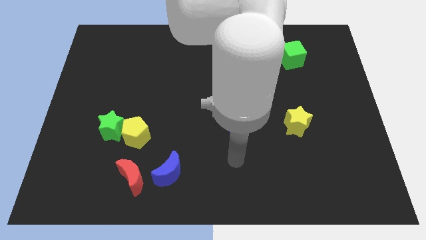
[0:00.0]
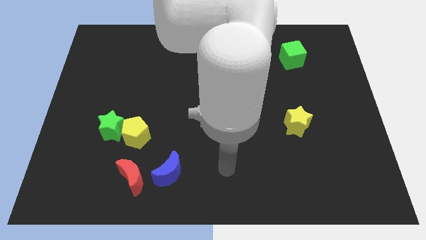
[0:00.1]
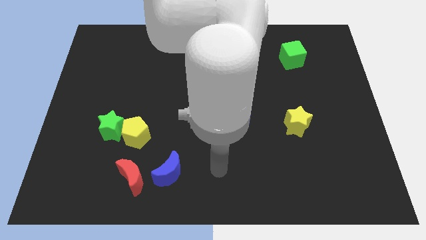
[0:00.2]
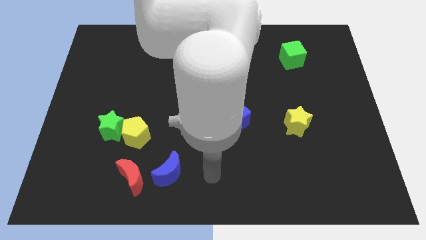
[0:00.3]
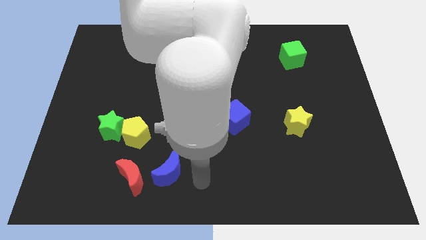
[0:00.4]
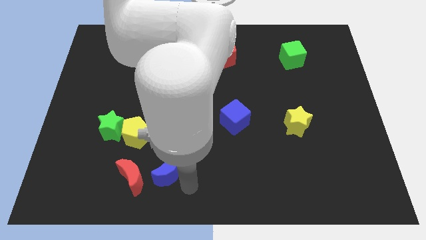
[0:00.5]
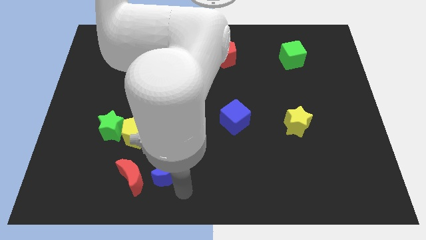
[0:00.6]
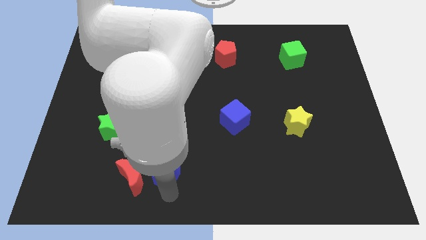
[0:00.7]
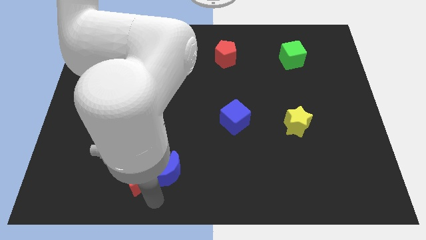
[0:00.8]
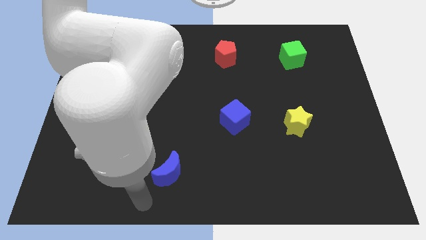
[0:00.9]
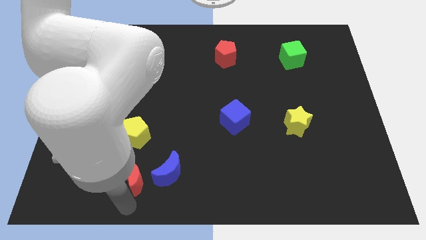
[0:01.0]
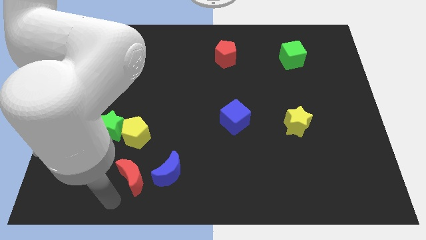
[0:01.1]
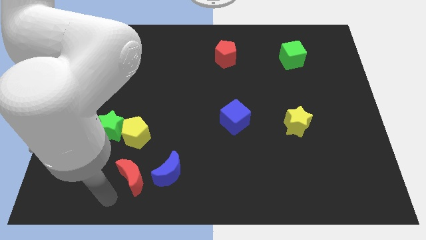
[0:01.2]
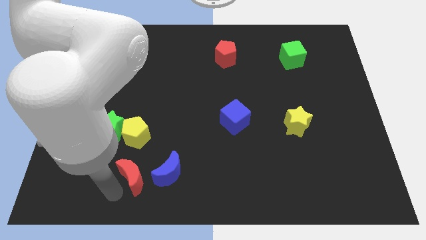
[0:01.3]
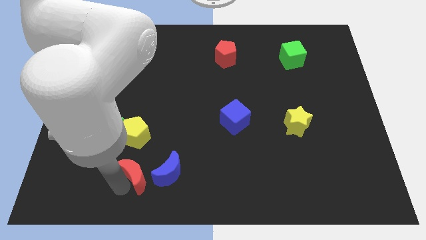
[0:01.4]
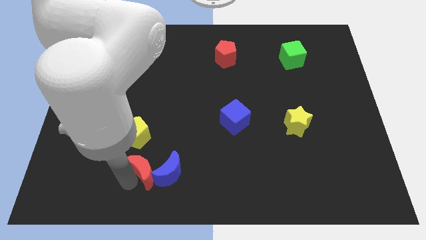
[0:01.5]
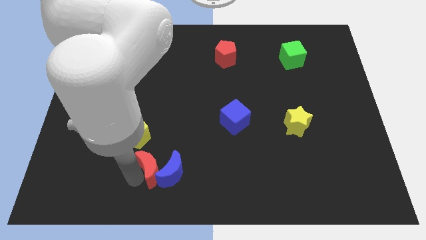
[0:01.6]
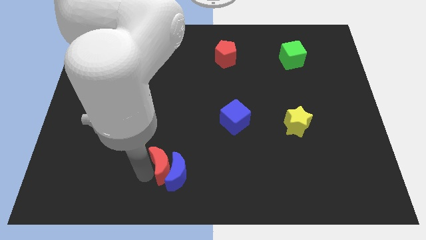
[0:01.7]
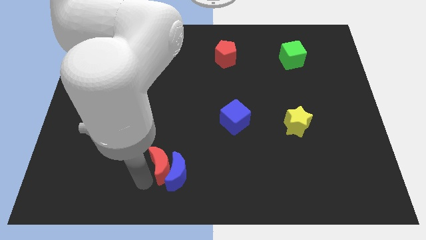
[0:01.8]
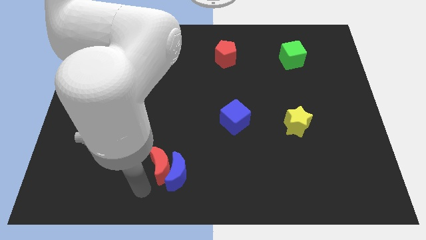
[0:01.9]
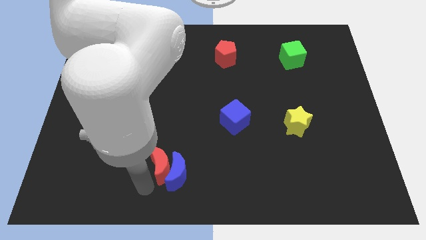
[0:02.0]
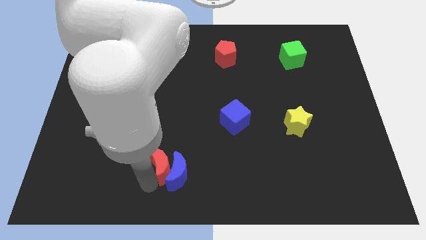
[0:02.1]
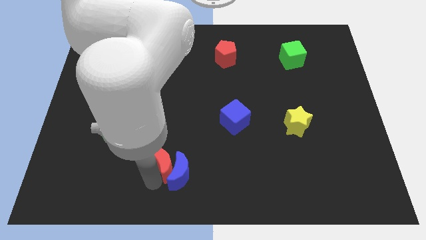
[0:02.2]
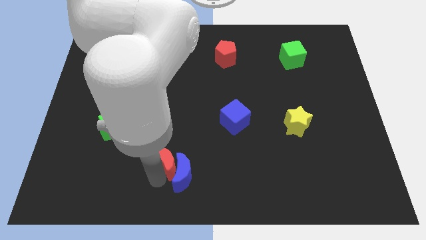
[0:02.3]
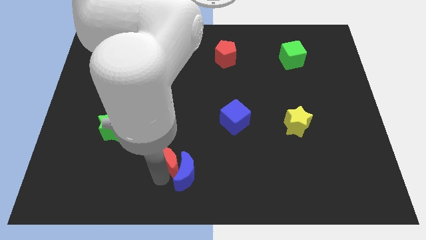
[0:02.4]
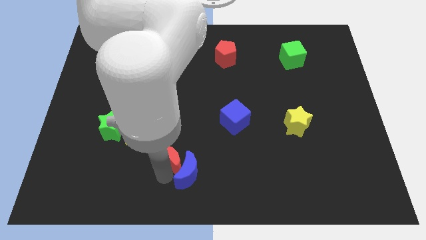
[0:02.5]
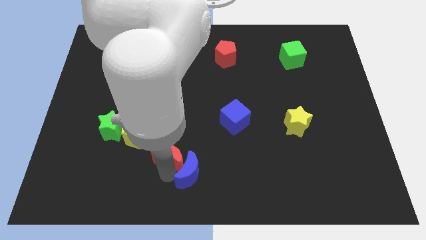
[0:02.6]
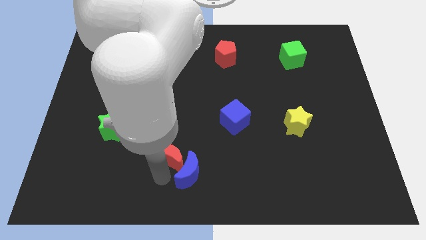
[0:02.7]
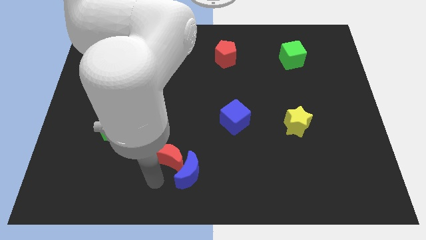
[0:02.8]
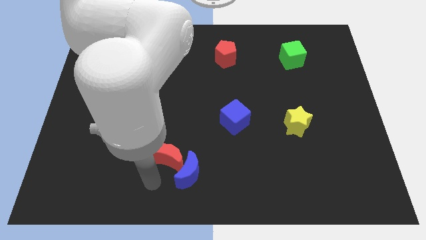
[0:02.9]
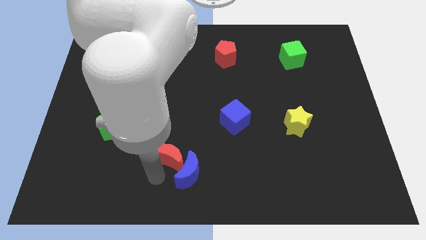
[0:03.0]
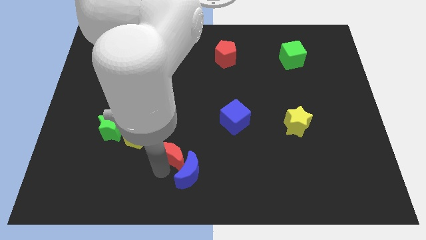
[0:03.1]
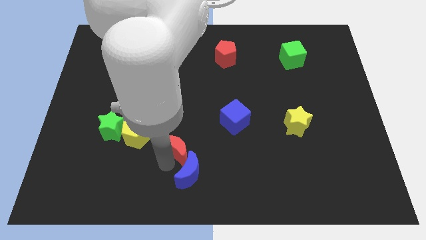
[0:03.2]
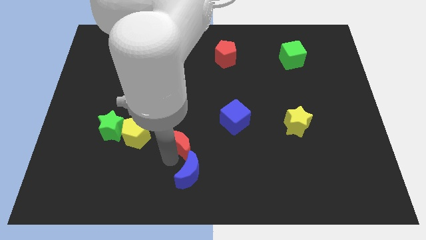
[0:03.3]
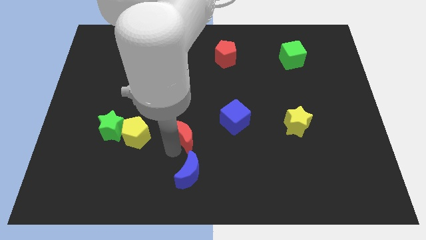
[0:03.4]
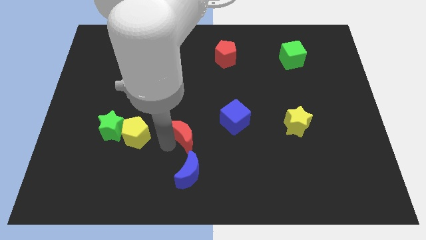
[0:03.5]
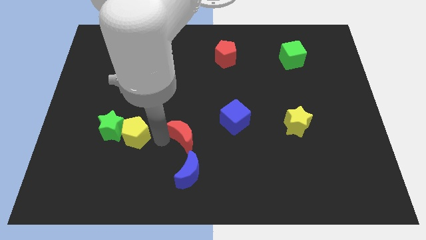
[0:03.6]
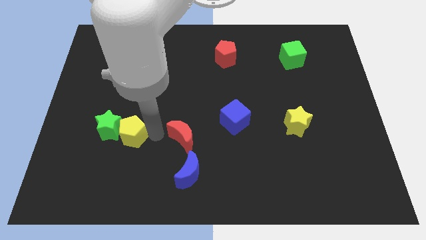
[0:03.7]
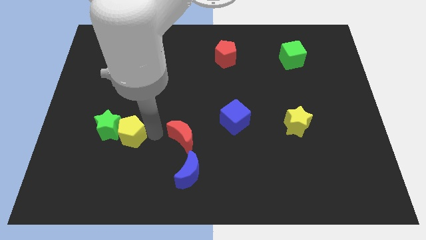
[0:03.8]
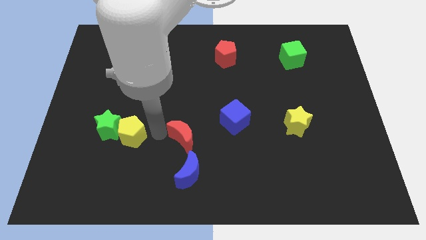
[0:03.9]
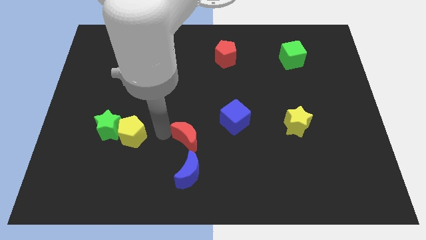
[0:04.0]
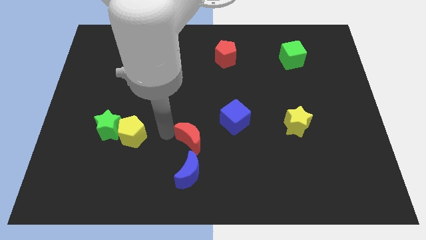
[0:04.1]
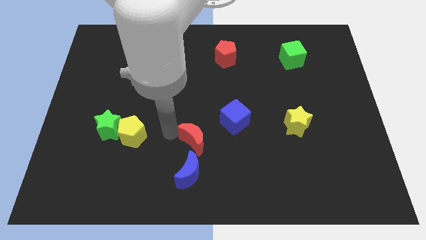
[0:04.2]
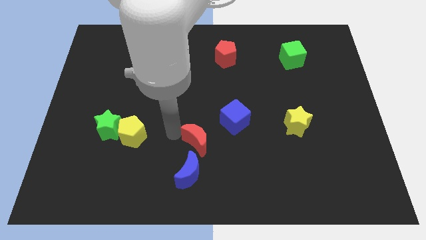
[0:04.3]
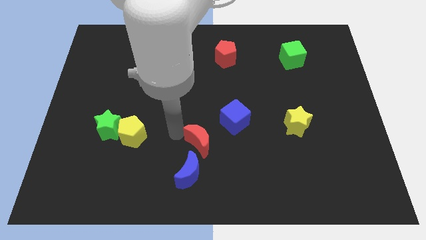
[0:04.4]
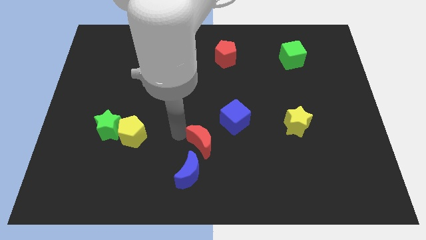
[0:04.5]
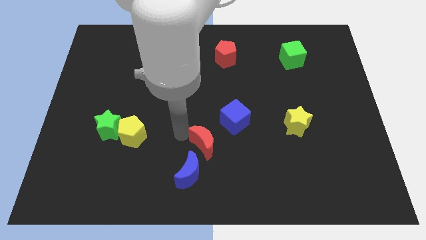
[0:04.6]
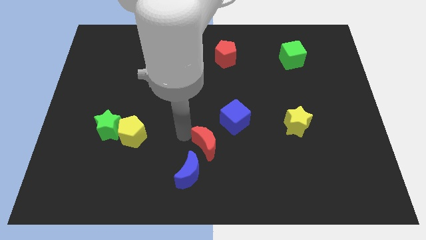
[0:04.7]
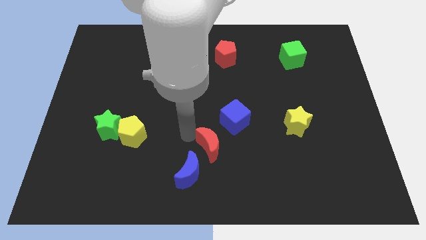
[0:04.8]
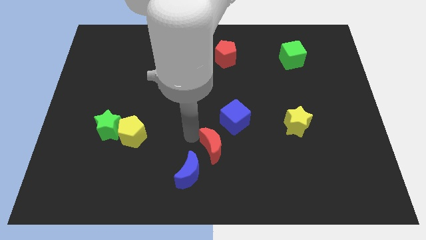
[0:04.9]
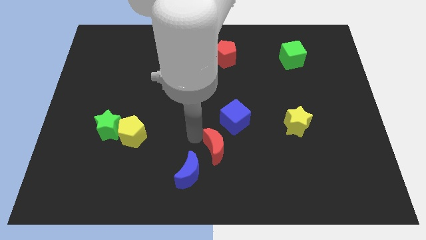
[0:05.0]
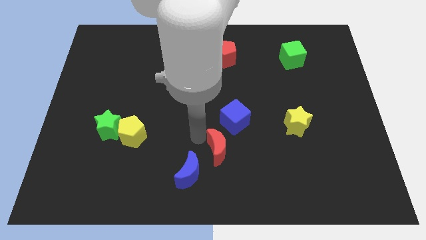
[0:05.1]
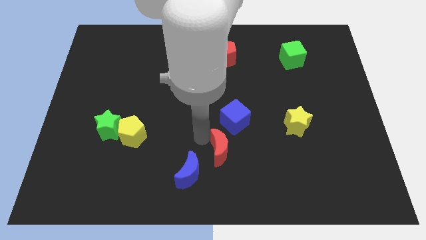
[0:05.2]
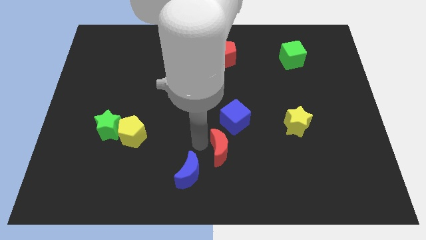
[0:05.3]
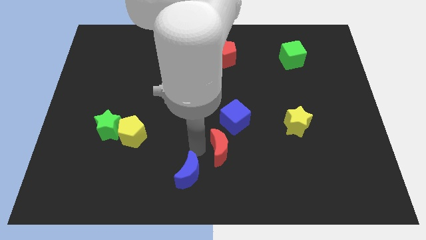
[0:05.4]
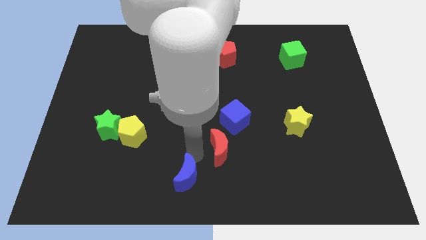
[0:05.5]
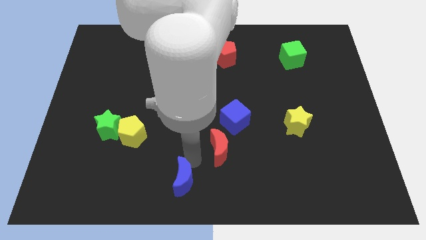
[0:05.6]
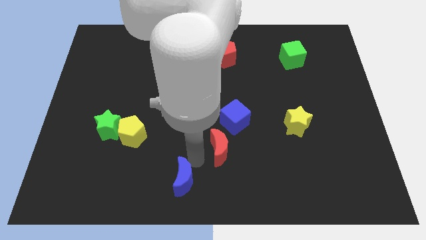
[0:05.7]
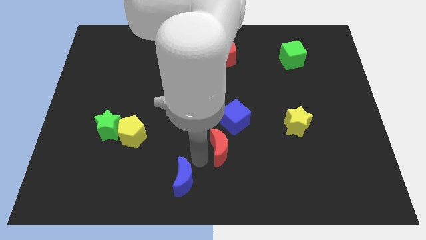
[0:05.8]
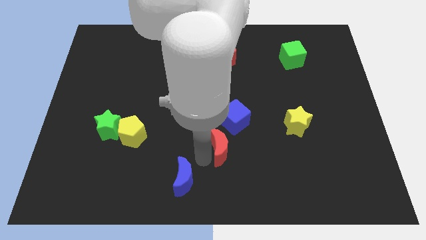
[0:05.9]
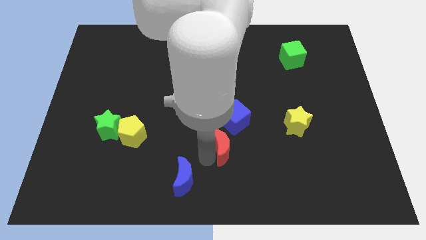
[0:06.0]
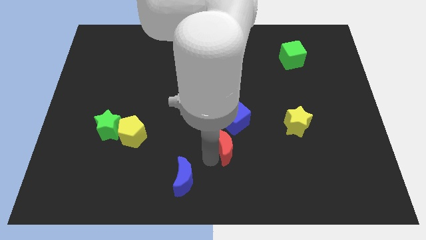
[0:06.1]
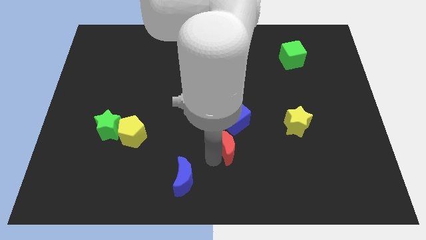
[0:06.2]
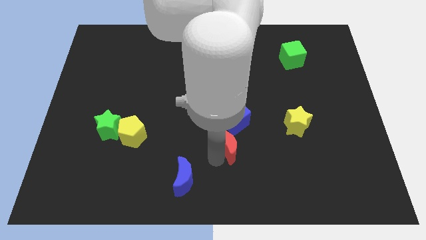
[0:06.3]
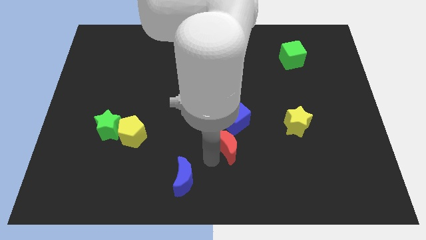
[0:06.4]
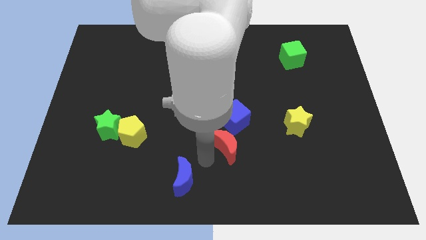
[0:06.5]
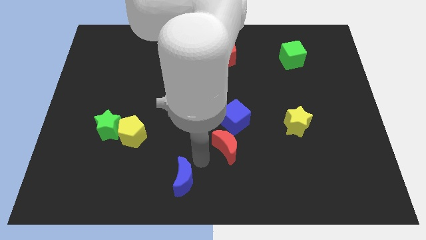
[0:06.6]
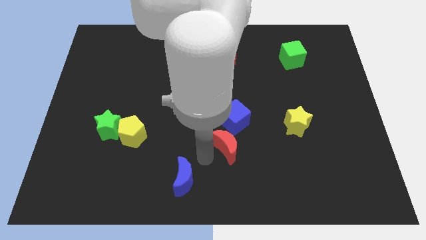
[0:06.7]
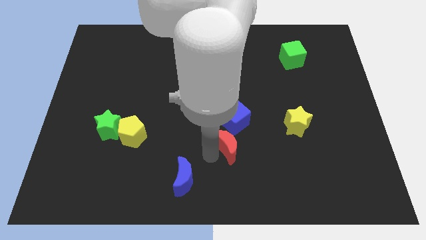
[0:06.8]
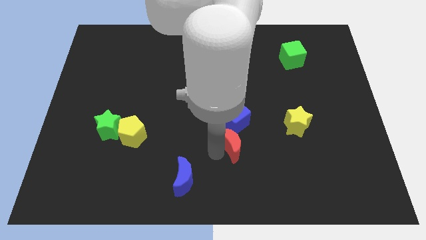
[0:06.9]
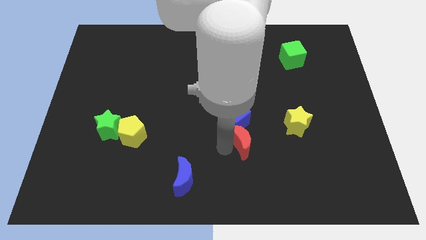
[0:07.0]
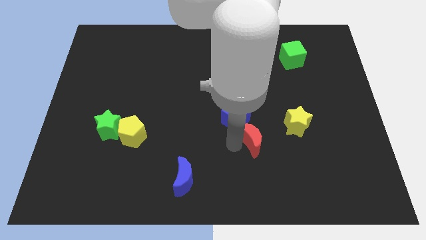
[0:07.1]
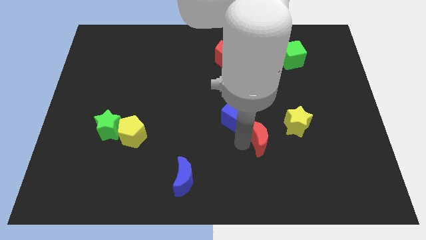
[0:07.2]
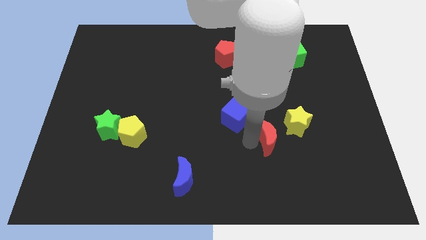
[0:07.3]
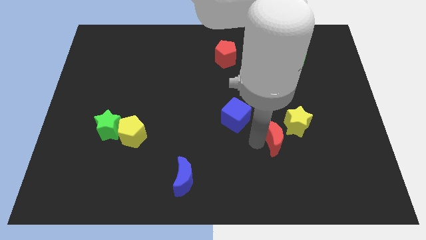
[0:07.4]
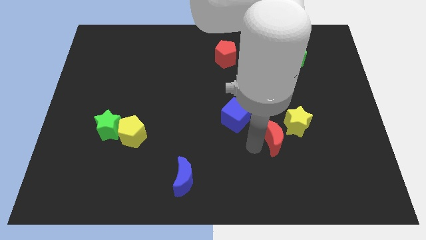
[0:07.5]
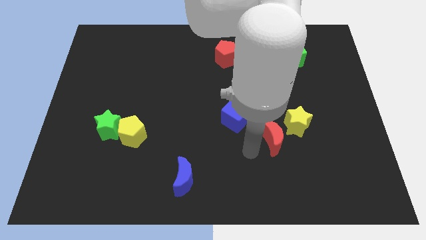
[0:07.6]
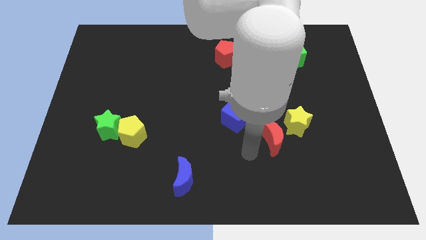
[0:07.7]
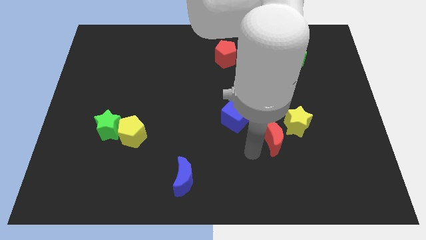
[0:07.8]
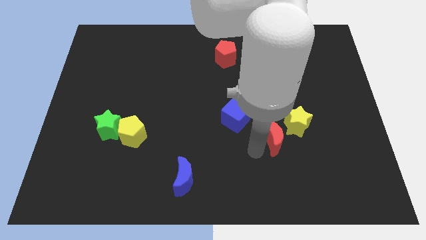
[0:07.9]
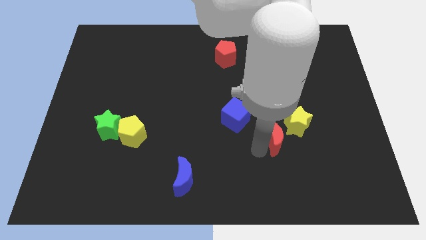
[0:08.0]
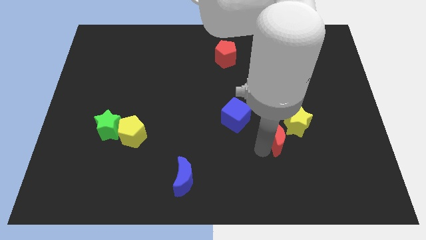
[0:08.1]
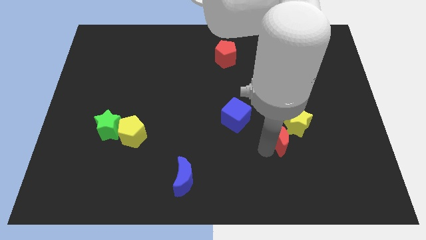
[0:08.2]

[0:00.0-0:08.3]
slide the red moon next to the yellow star
